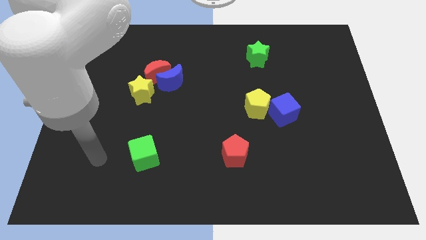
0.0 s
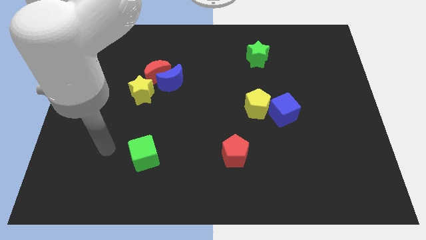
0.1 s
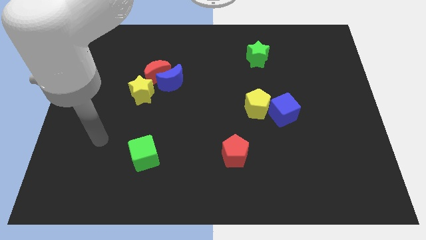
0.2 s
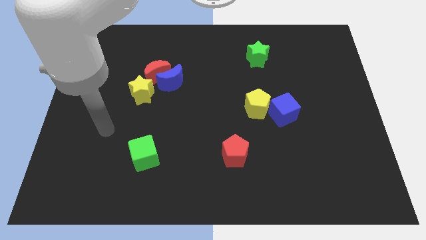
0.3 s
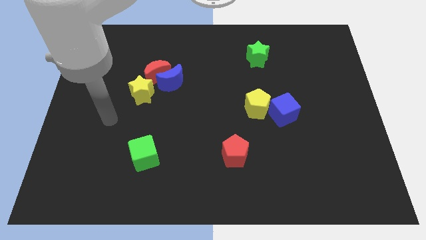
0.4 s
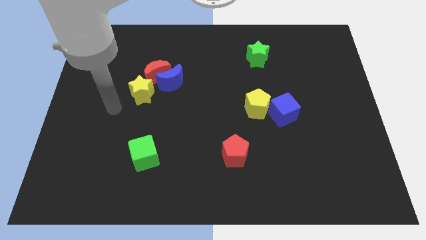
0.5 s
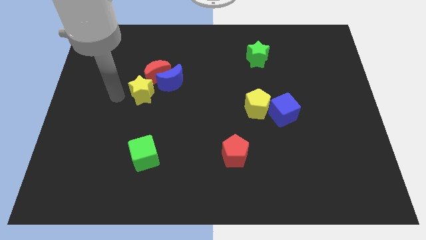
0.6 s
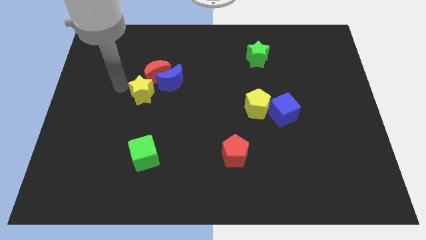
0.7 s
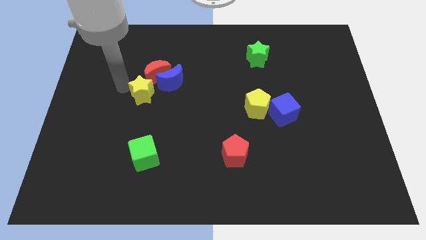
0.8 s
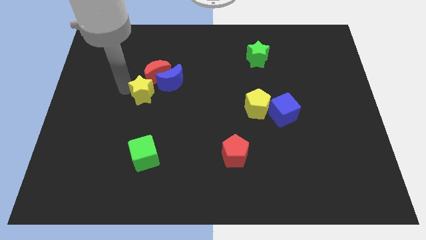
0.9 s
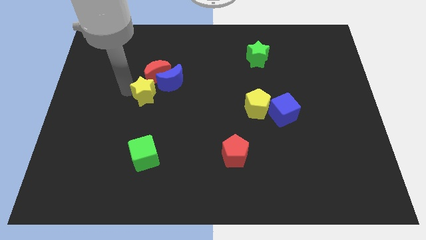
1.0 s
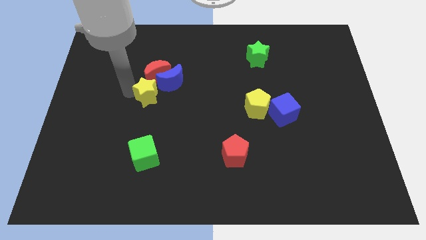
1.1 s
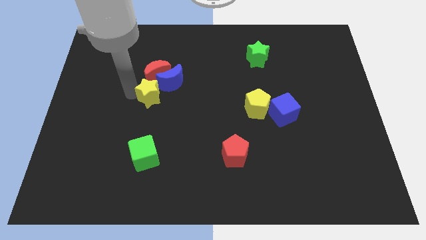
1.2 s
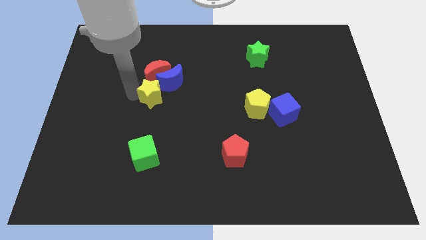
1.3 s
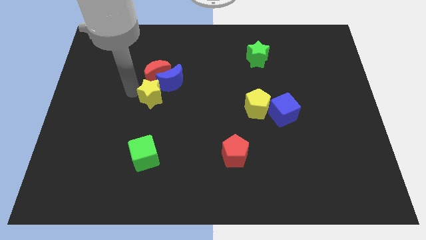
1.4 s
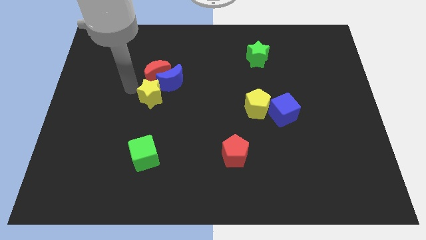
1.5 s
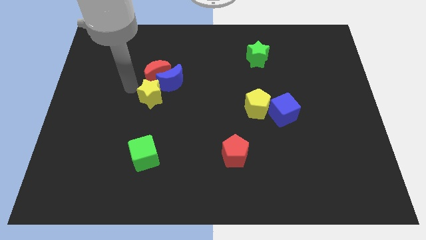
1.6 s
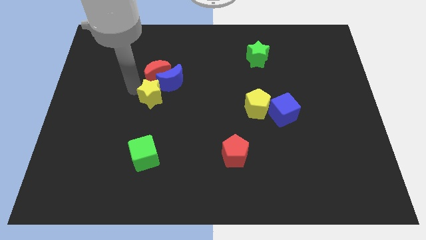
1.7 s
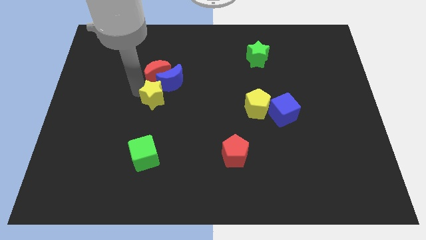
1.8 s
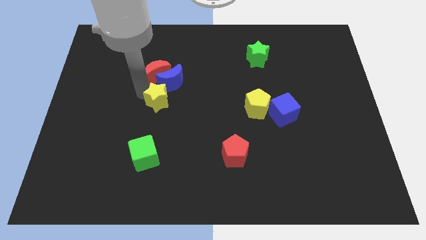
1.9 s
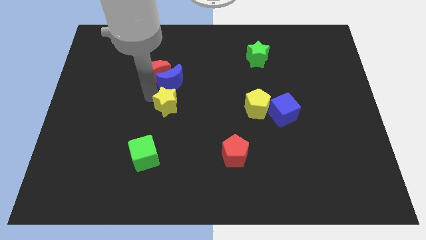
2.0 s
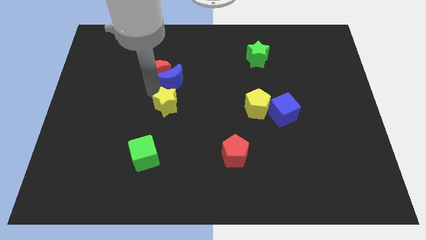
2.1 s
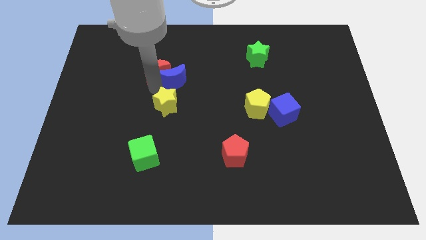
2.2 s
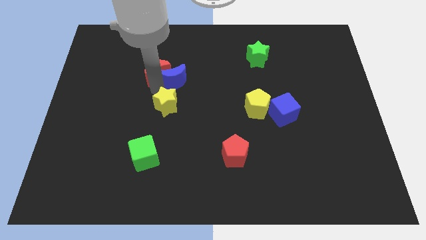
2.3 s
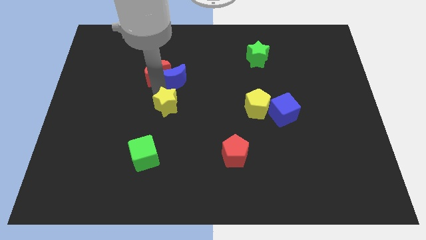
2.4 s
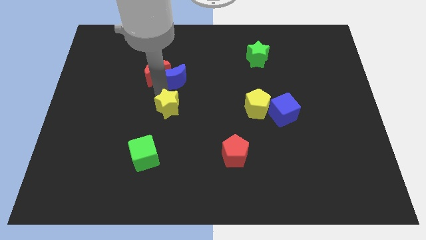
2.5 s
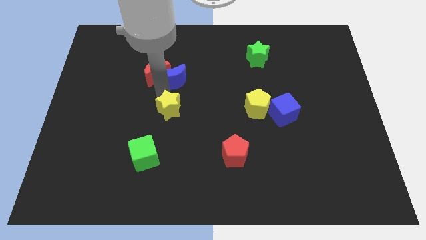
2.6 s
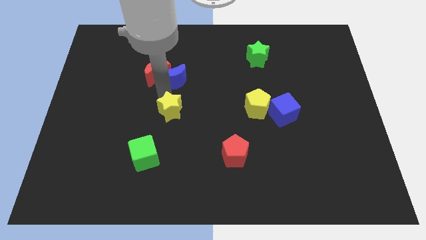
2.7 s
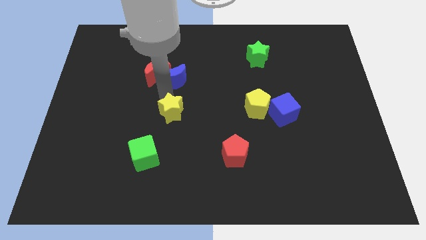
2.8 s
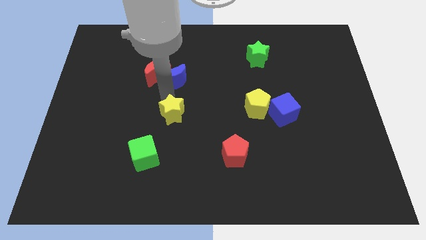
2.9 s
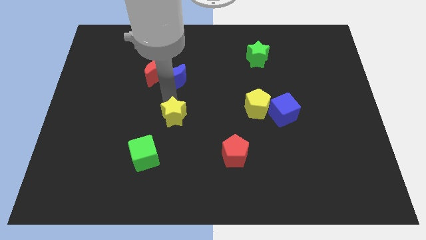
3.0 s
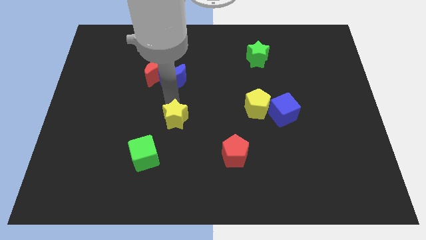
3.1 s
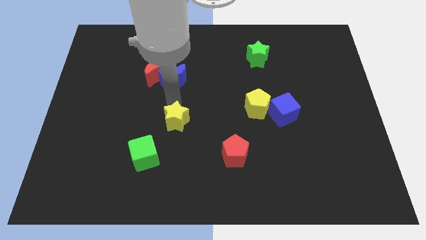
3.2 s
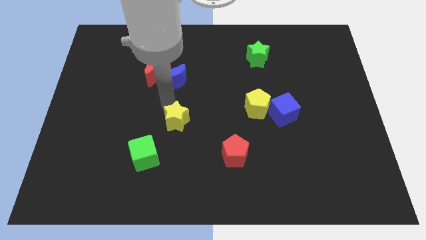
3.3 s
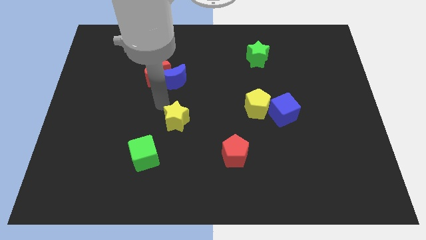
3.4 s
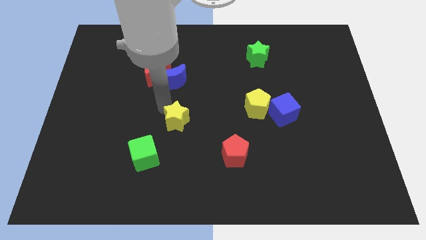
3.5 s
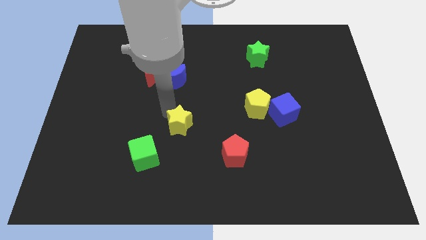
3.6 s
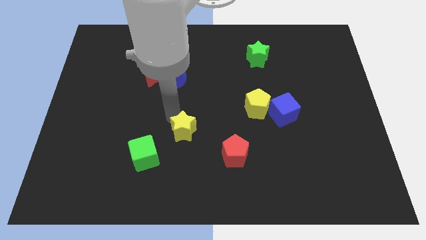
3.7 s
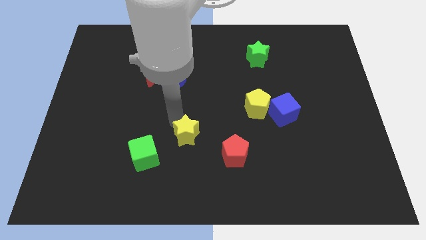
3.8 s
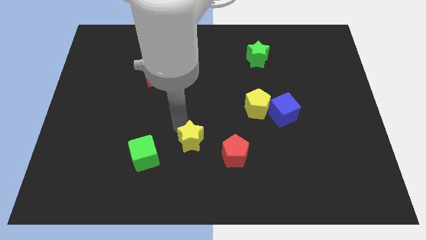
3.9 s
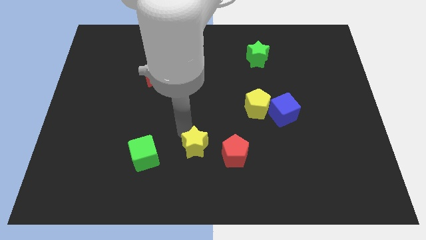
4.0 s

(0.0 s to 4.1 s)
move the yellow star downwards and to the right

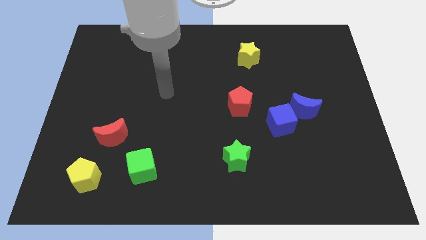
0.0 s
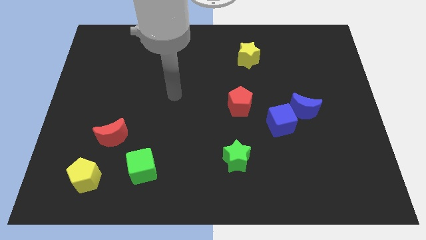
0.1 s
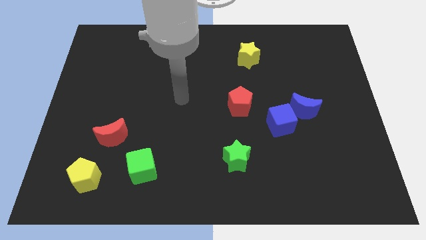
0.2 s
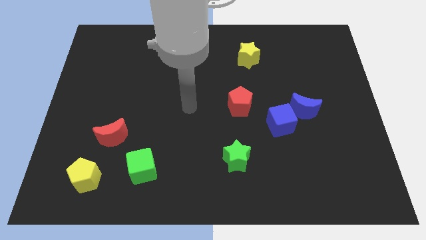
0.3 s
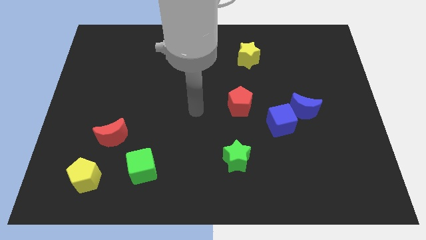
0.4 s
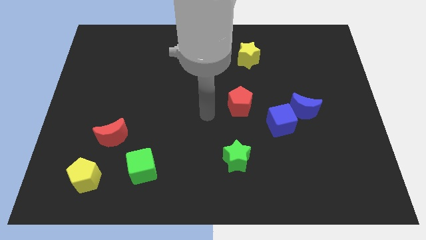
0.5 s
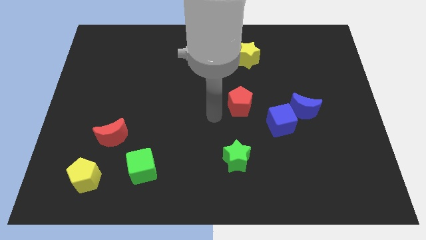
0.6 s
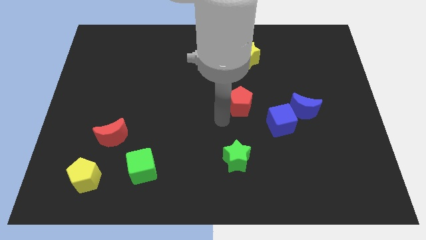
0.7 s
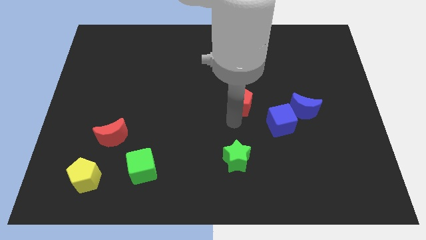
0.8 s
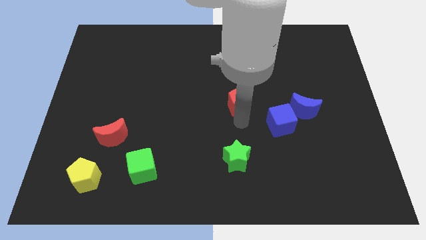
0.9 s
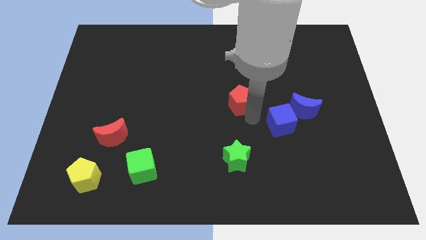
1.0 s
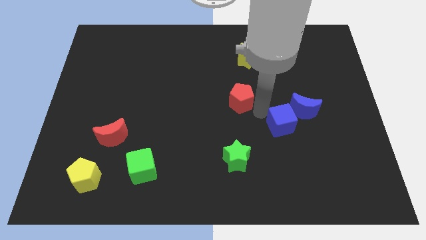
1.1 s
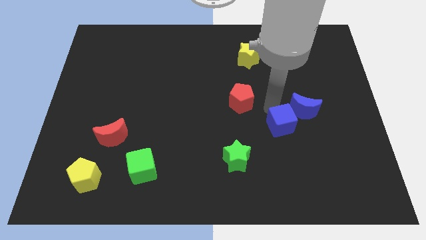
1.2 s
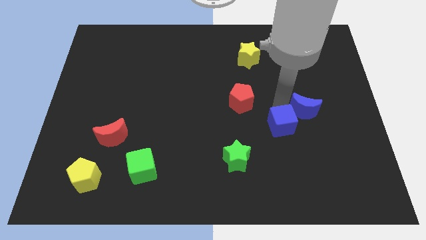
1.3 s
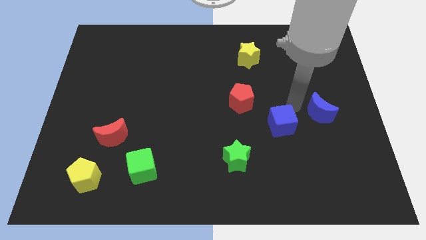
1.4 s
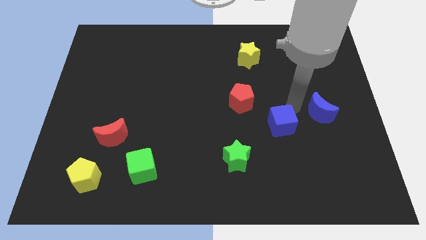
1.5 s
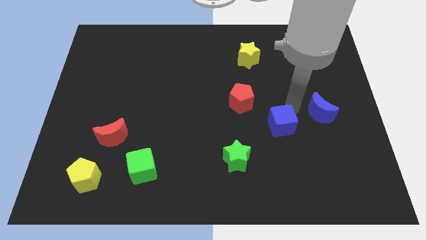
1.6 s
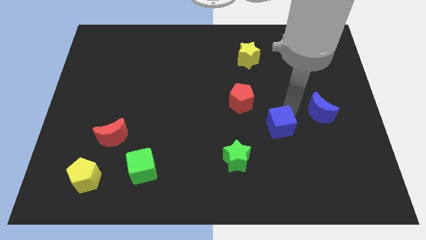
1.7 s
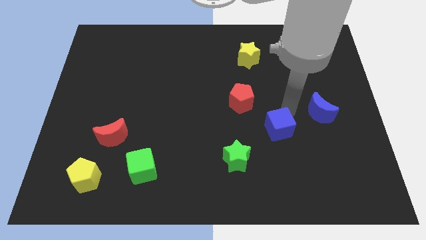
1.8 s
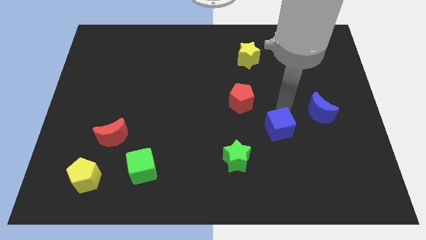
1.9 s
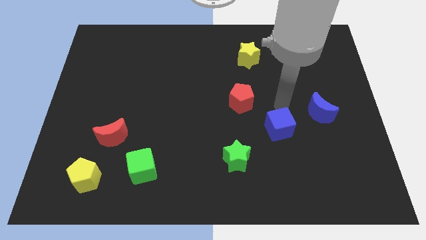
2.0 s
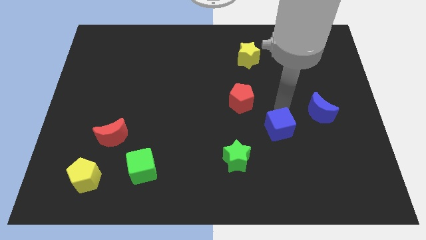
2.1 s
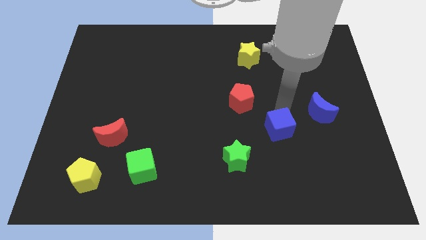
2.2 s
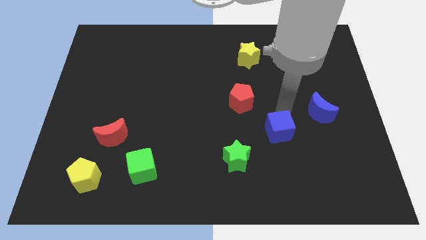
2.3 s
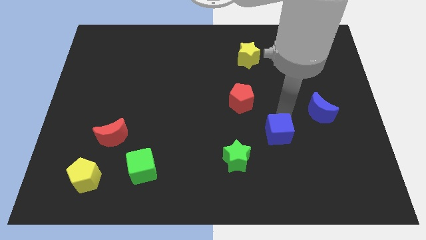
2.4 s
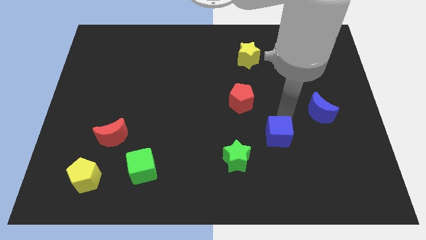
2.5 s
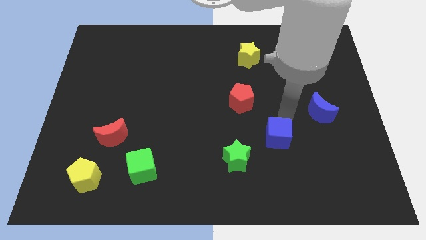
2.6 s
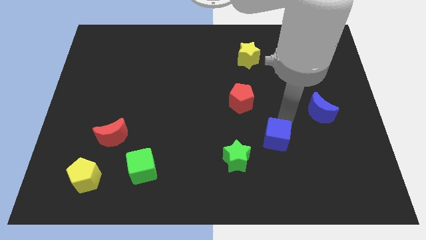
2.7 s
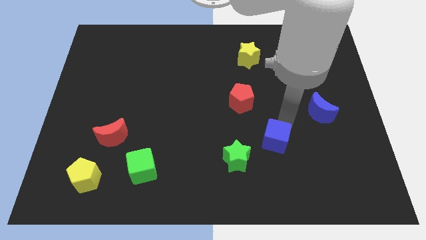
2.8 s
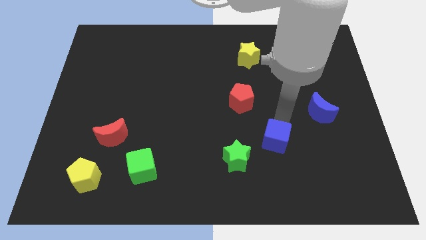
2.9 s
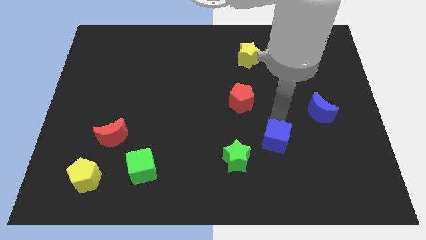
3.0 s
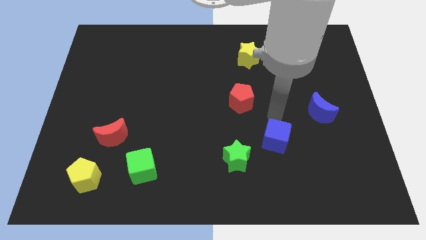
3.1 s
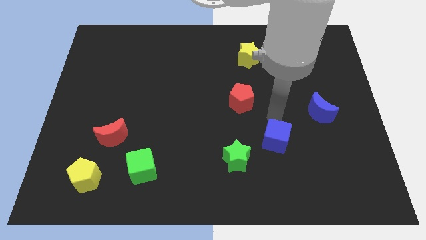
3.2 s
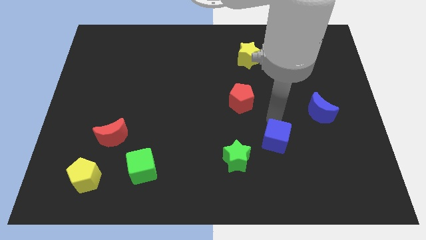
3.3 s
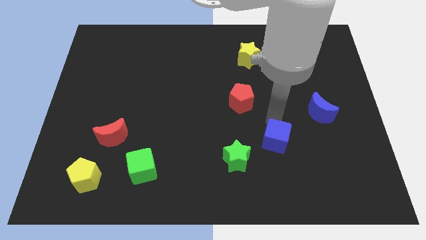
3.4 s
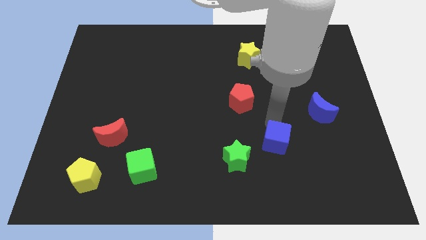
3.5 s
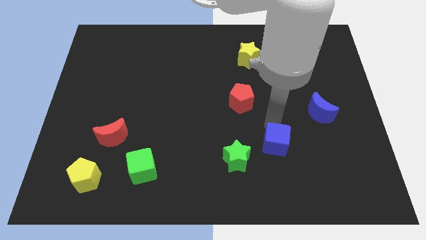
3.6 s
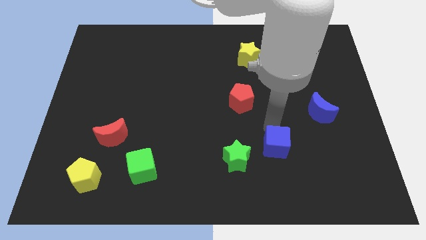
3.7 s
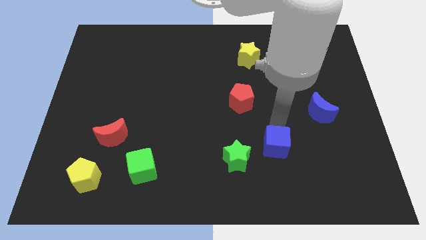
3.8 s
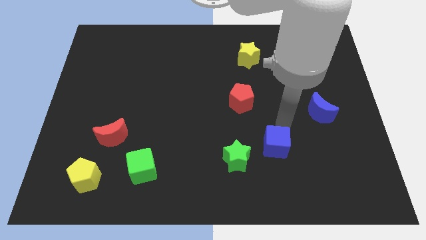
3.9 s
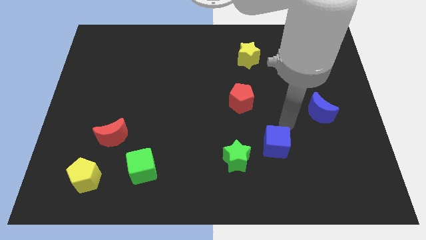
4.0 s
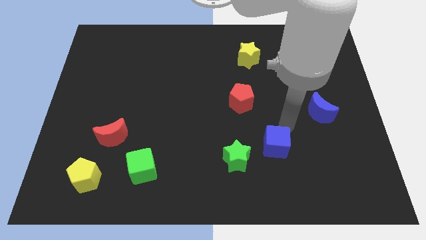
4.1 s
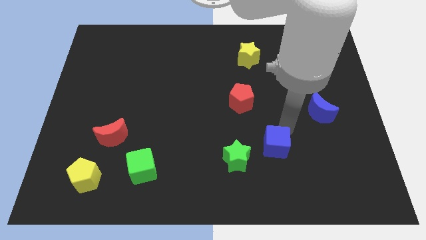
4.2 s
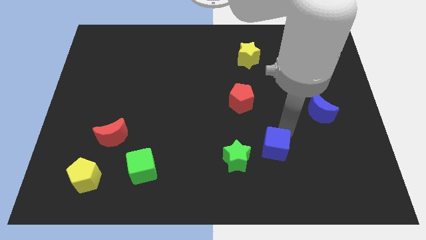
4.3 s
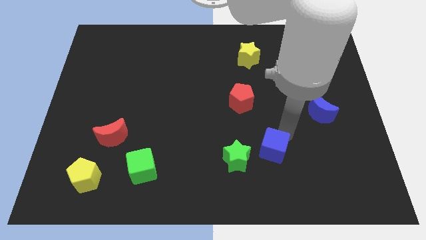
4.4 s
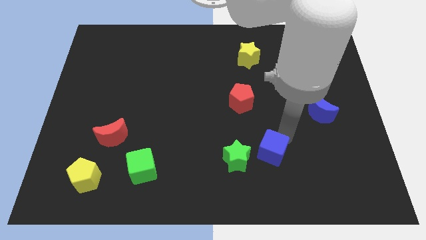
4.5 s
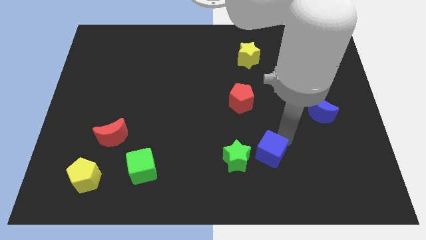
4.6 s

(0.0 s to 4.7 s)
slide the blue cube down and to the left diagonally slightly
